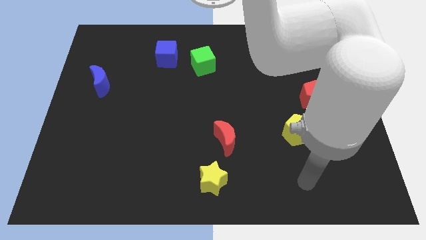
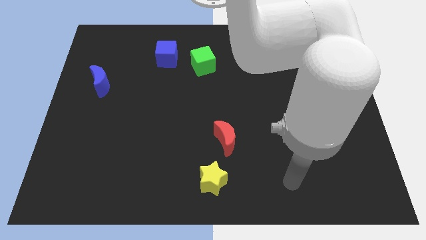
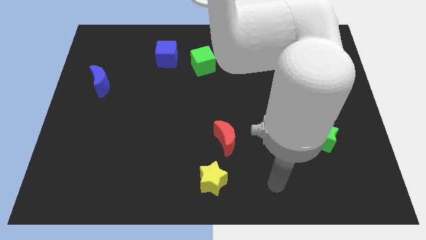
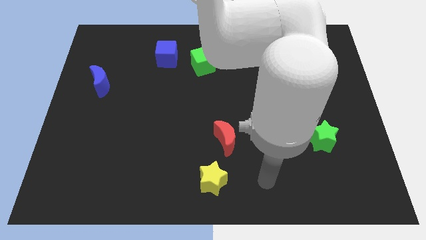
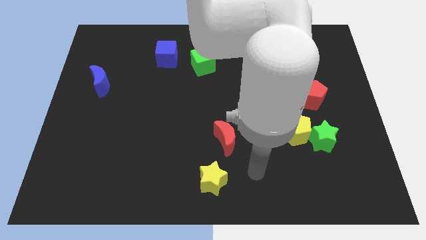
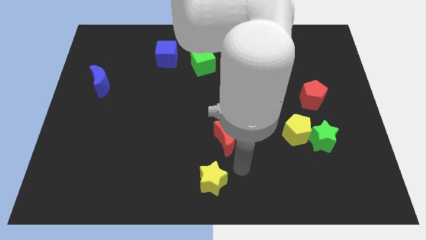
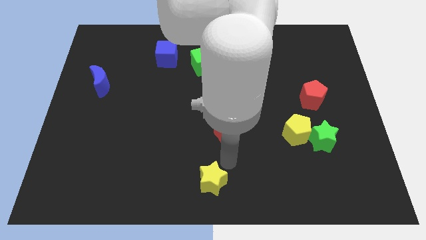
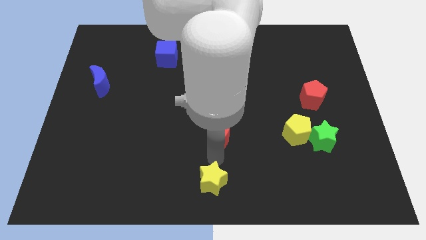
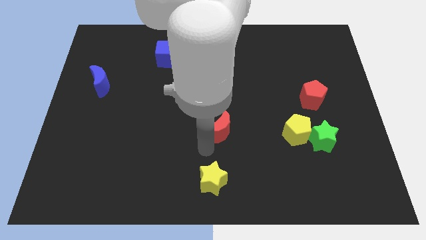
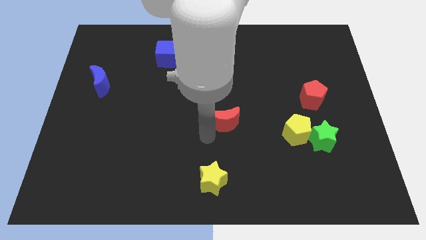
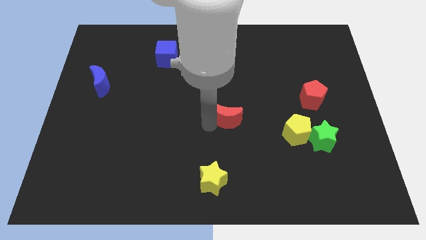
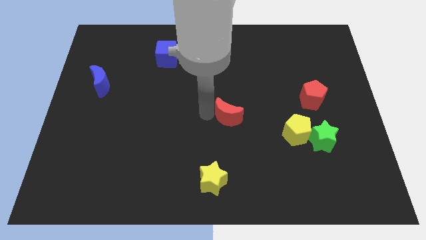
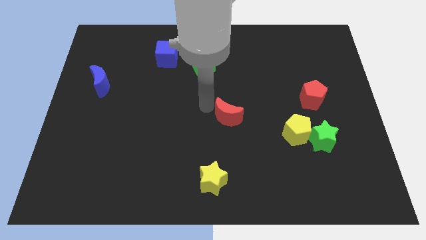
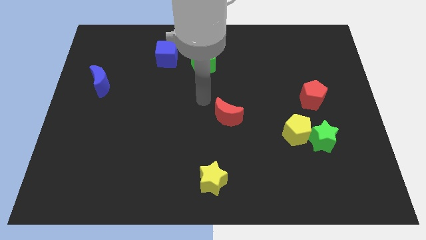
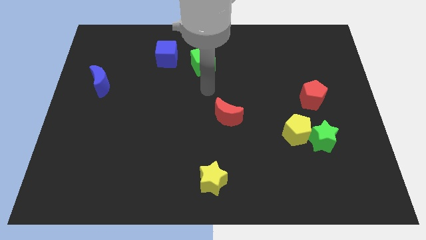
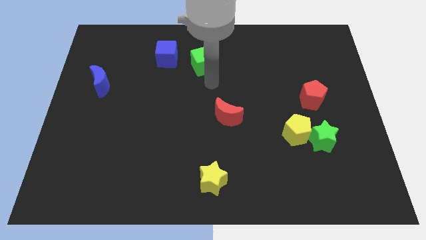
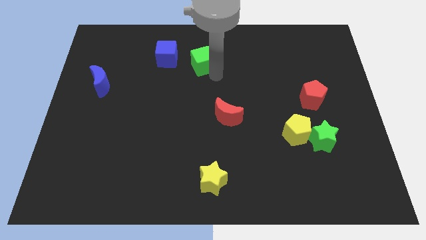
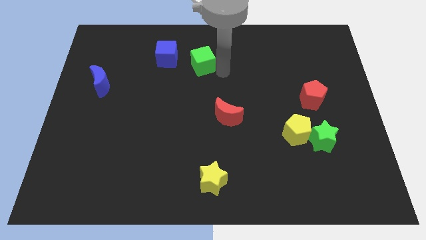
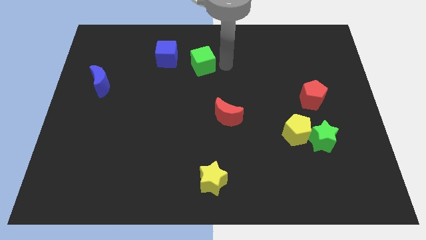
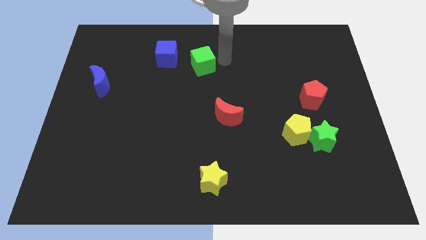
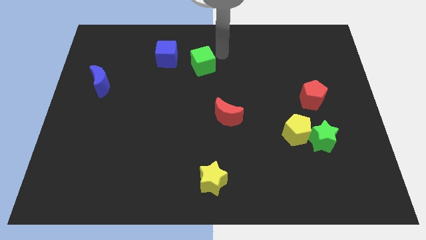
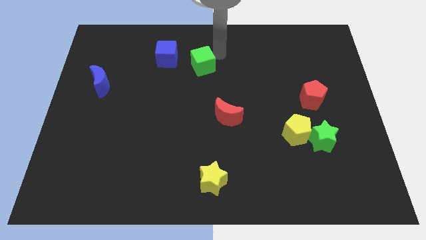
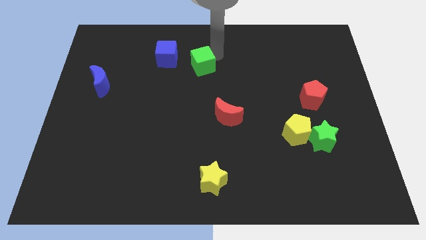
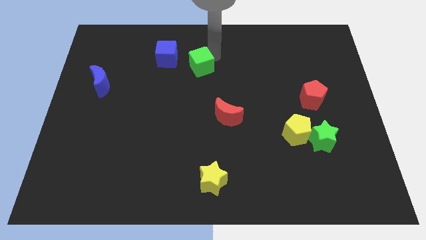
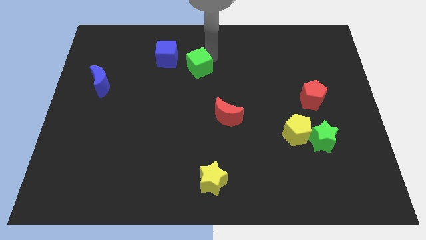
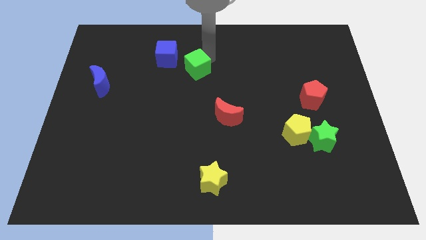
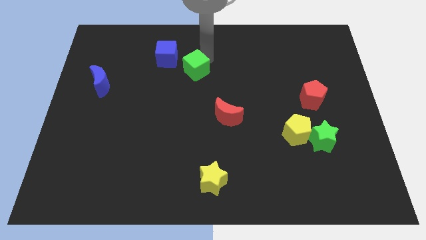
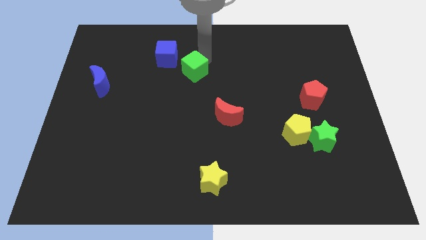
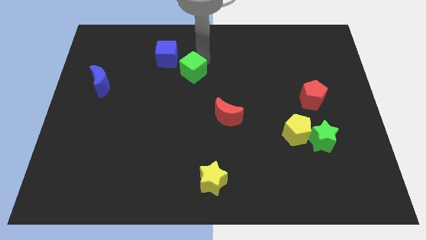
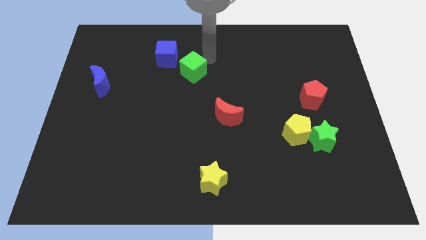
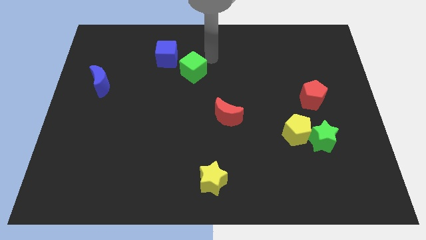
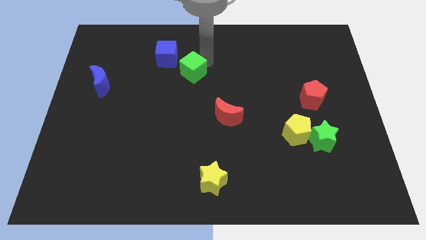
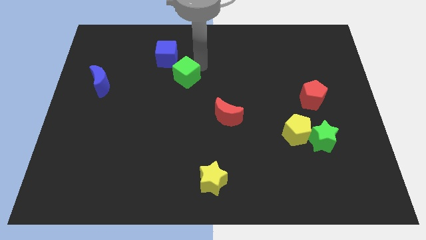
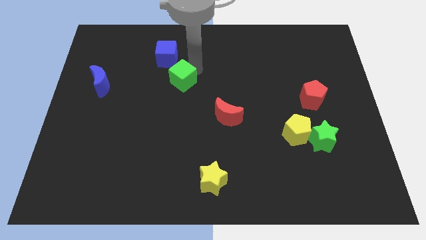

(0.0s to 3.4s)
slide the green cube a bit downwards and left diagonally

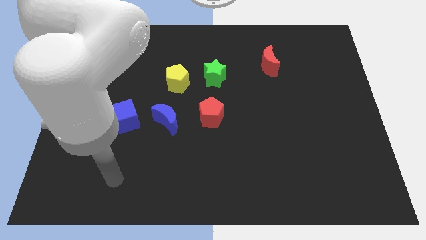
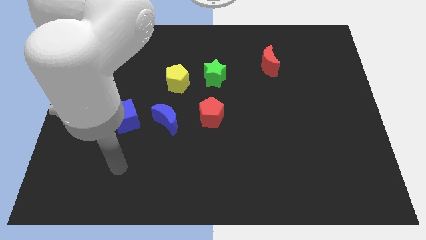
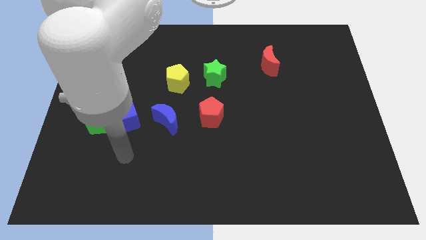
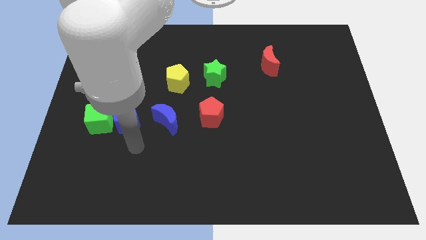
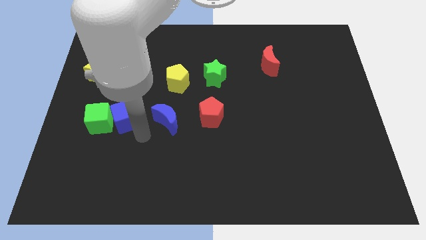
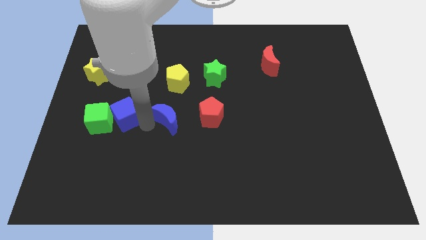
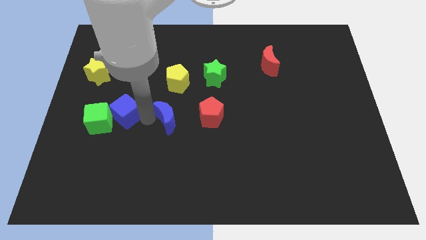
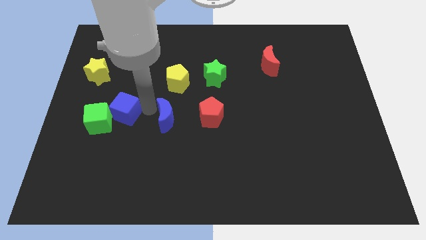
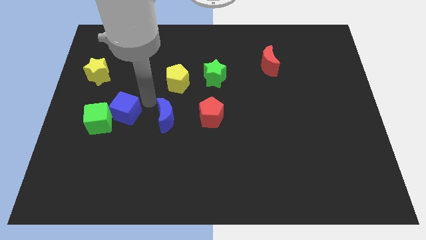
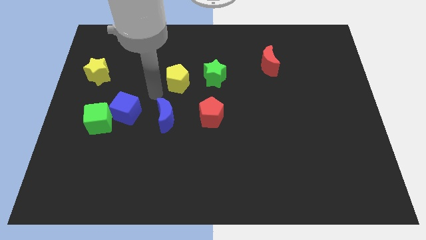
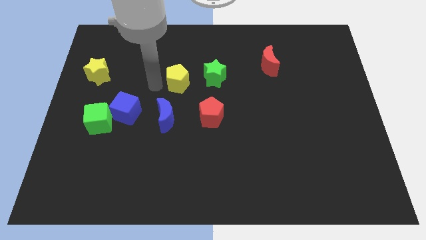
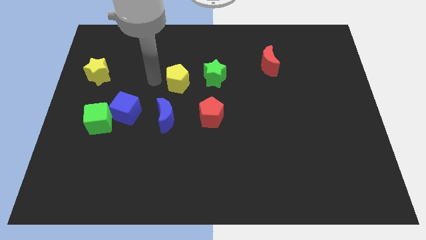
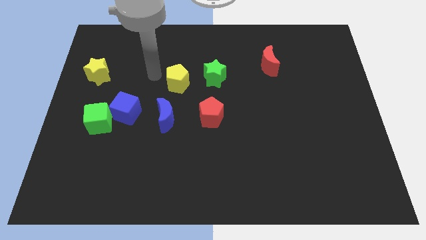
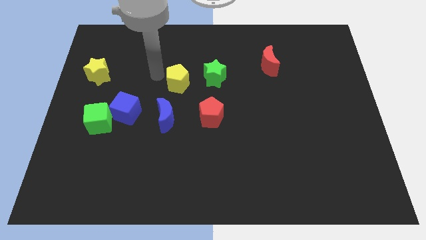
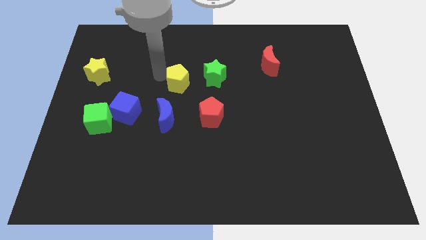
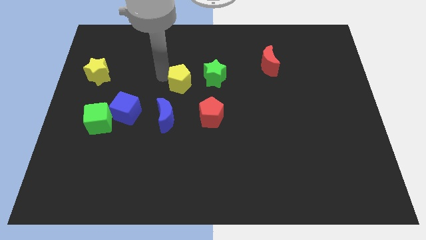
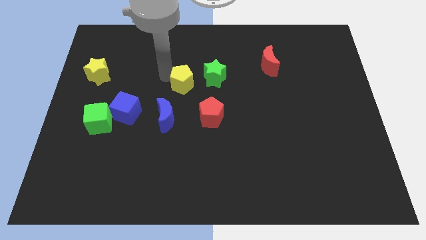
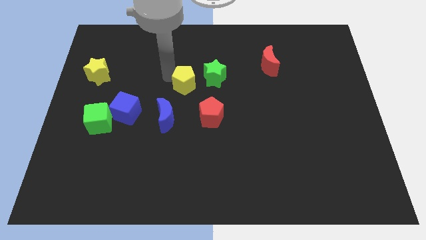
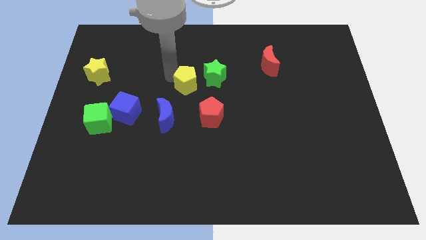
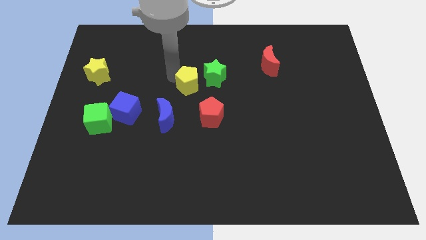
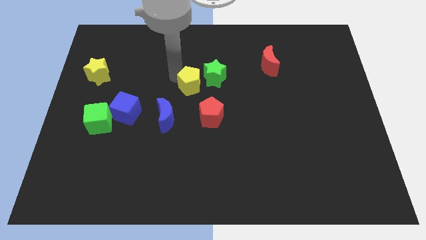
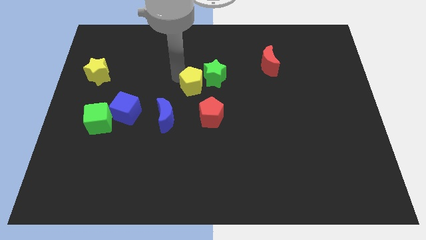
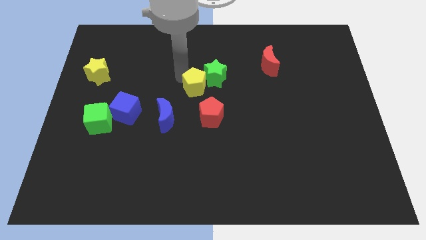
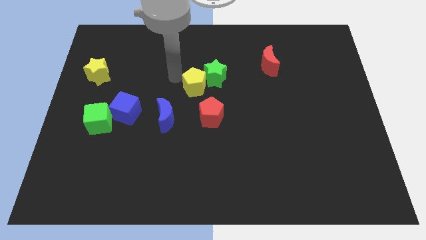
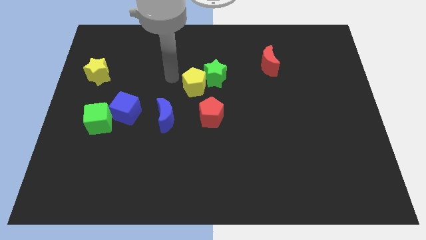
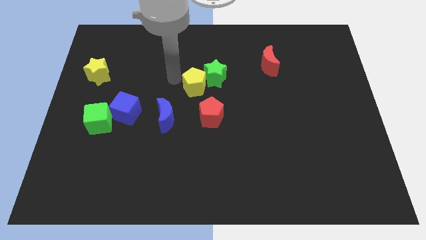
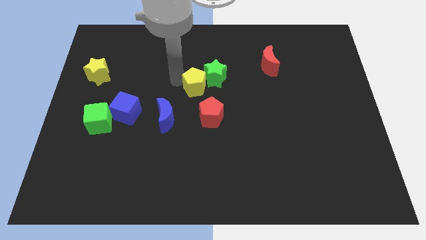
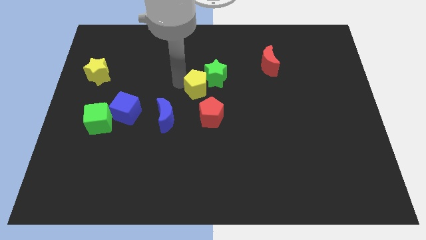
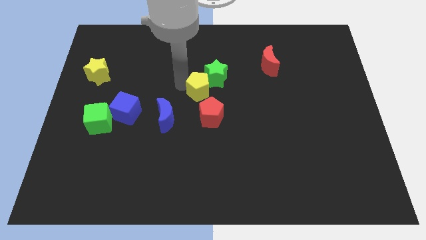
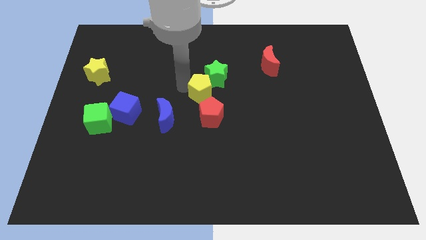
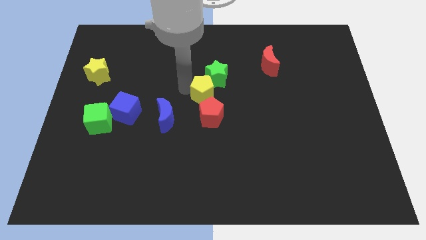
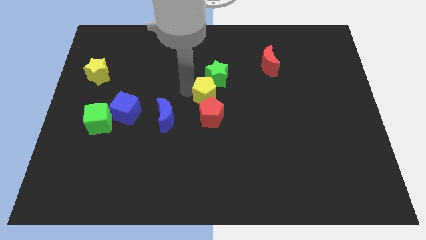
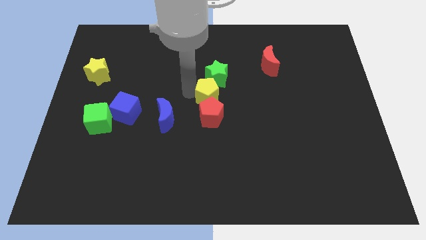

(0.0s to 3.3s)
move the yellow pentagon a little bit right

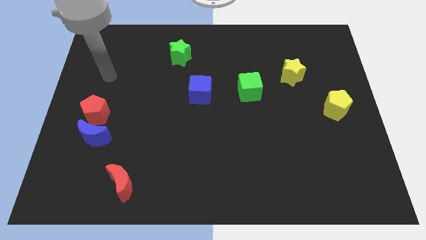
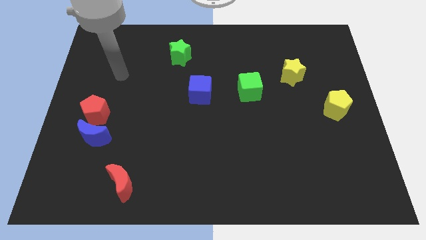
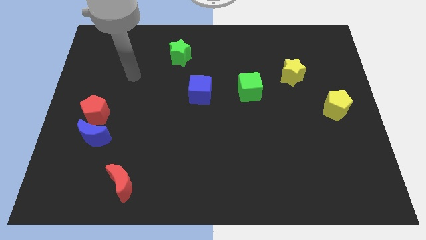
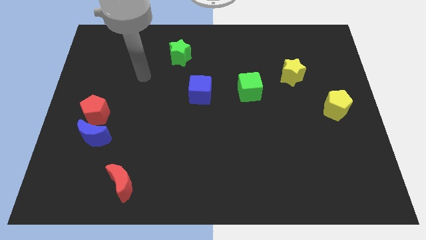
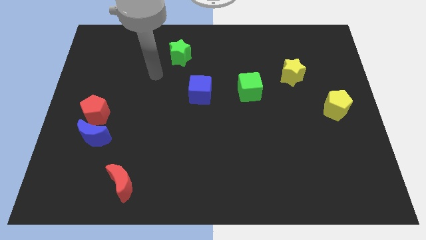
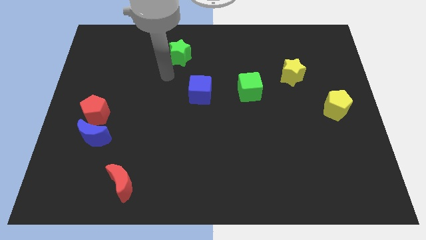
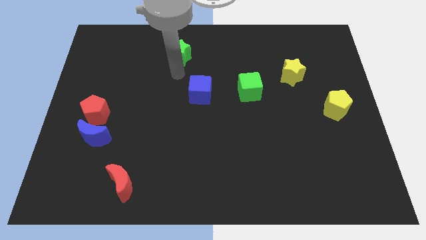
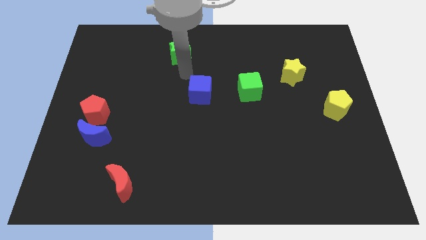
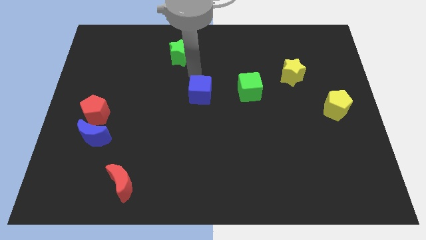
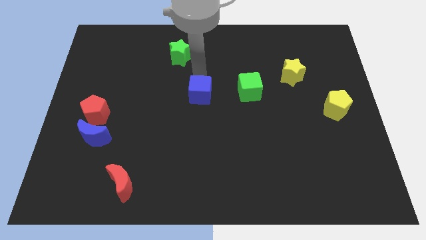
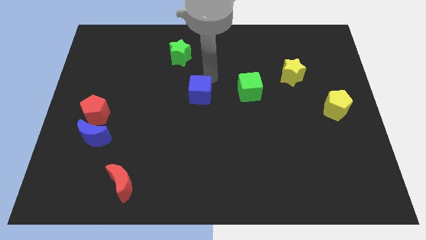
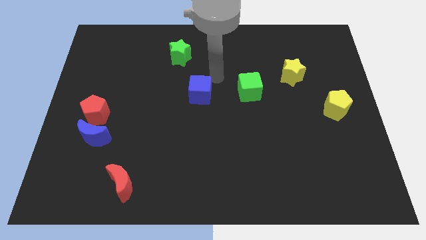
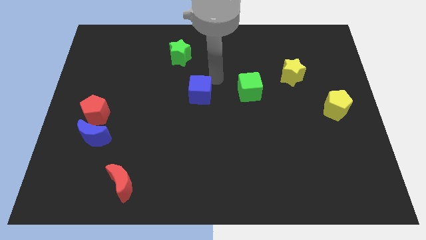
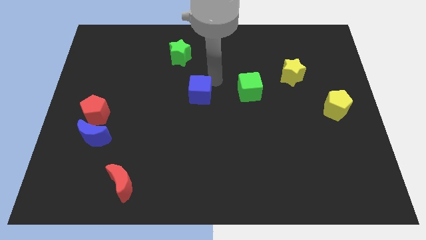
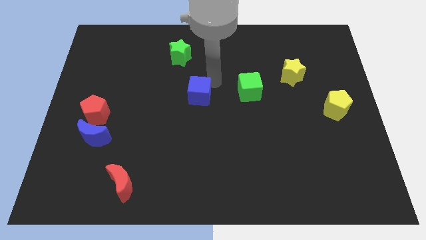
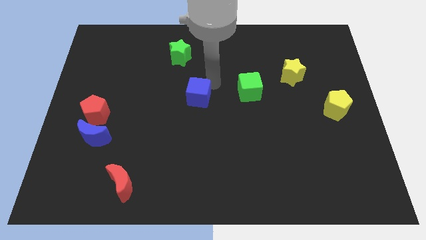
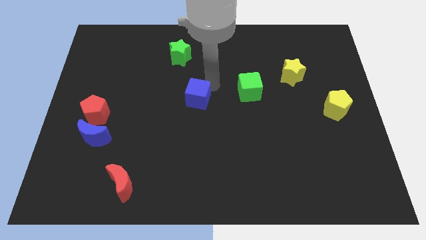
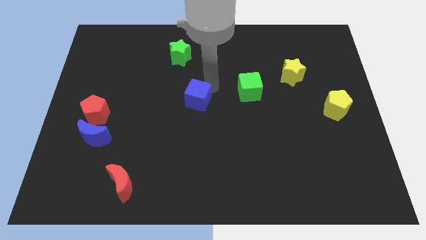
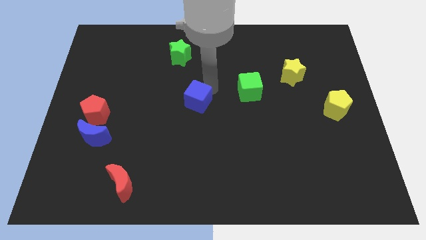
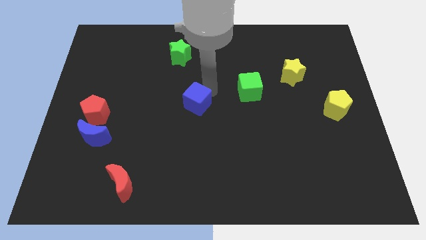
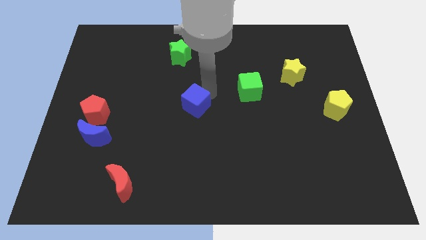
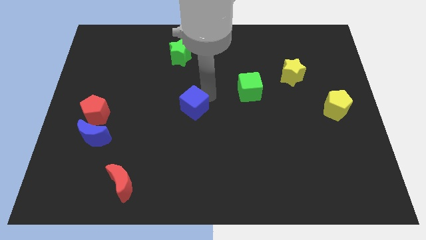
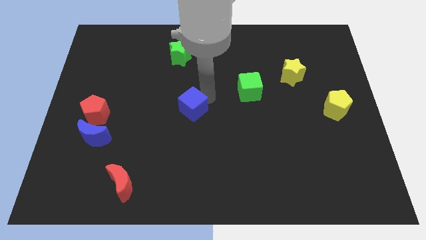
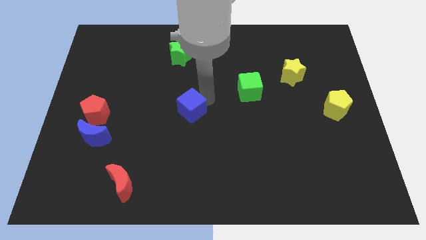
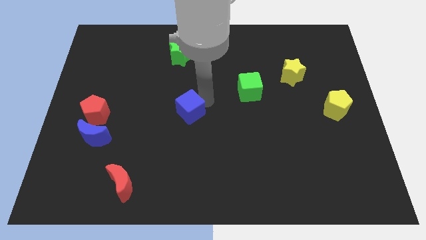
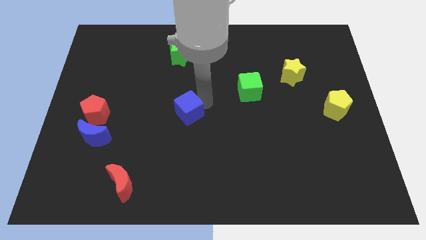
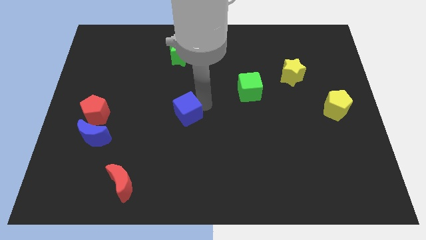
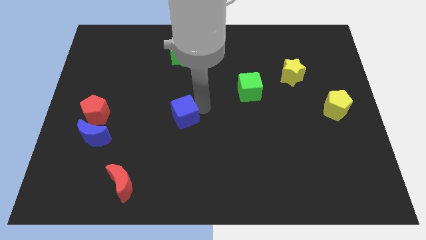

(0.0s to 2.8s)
push the blue cube downwards and left a bit
